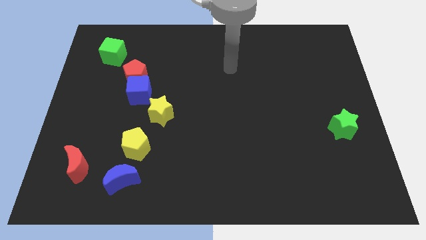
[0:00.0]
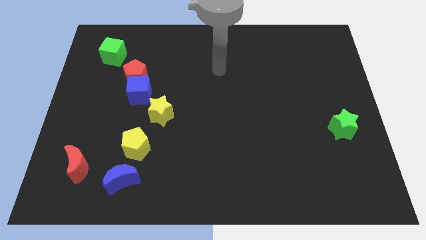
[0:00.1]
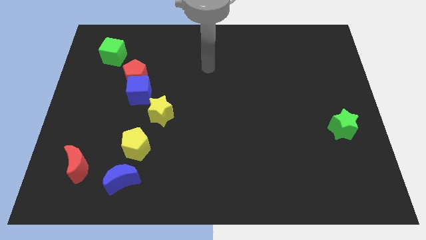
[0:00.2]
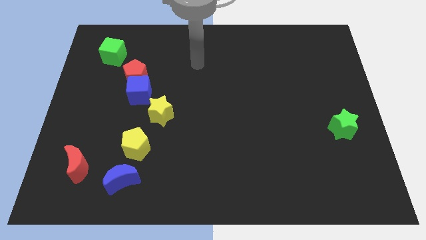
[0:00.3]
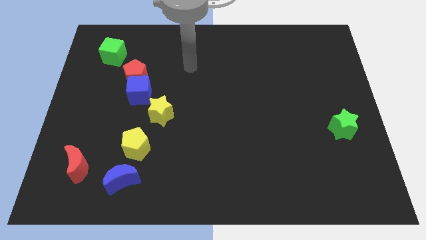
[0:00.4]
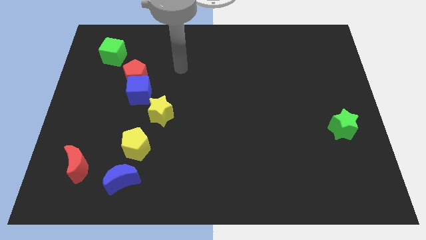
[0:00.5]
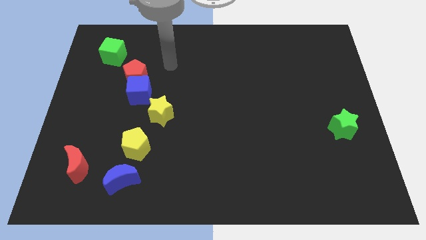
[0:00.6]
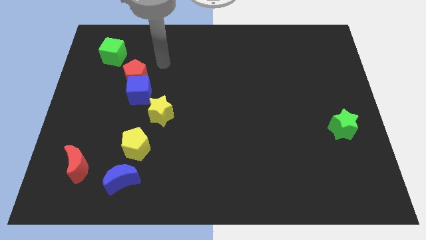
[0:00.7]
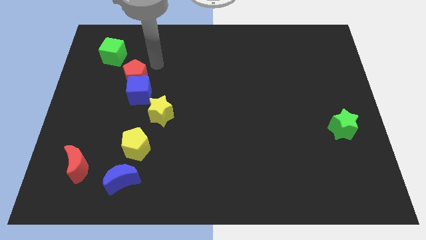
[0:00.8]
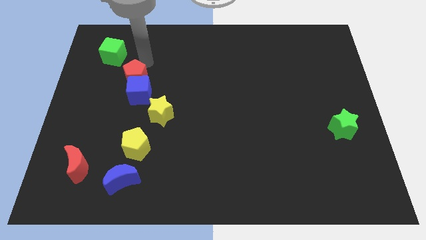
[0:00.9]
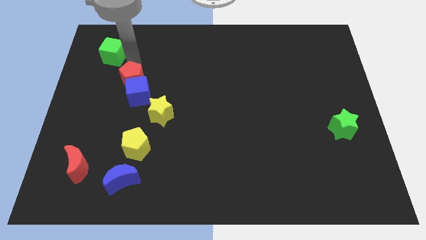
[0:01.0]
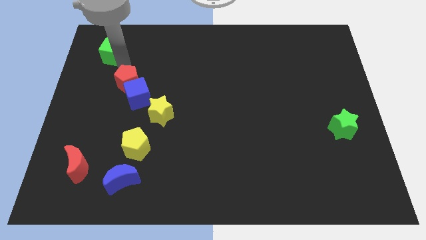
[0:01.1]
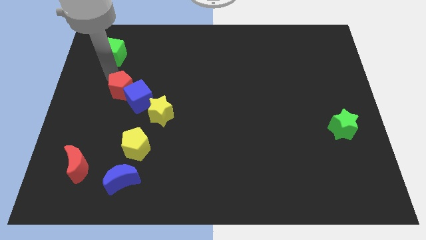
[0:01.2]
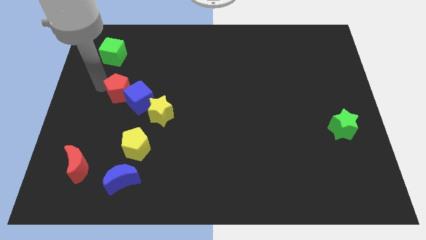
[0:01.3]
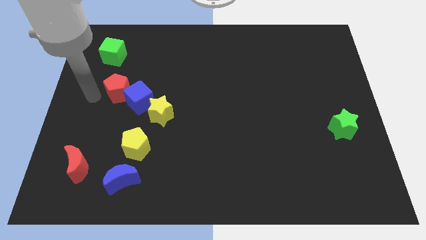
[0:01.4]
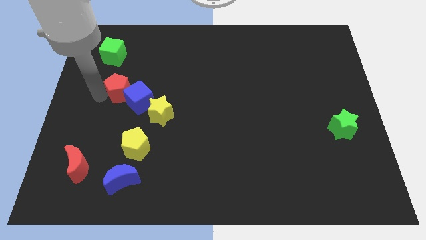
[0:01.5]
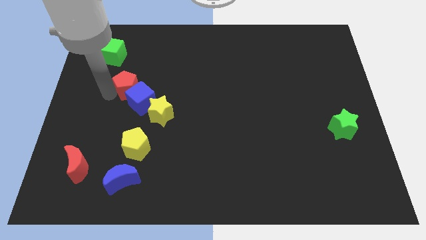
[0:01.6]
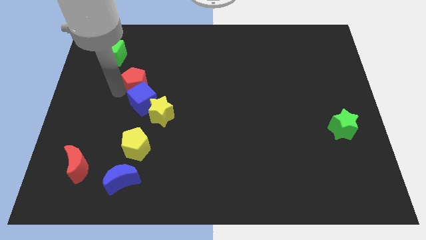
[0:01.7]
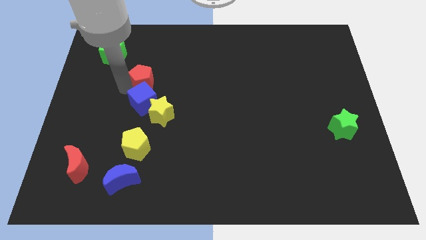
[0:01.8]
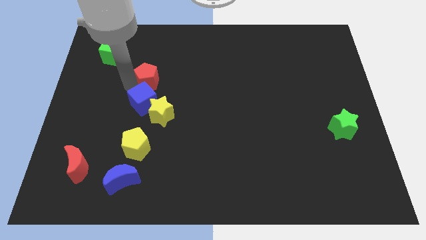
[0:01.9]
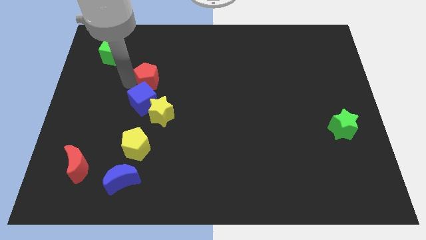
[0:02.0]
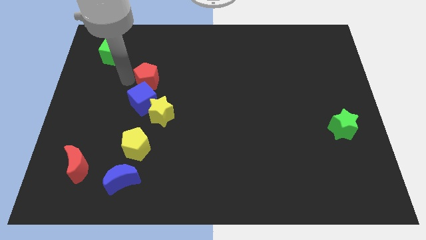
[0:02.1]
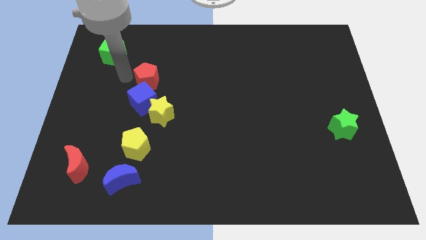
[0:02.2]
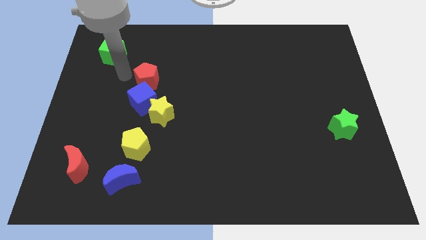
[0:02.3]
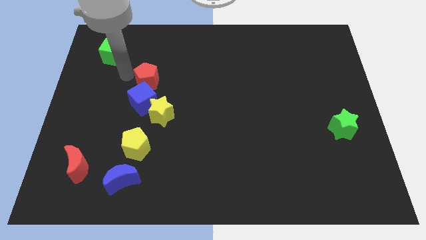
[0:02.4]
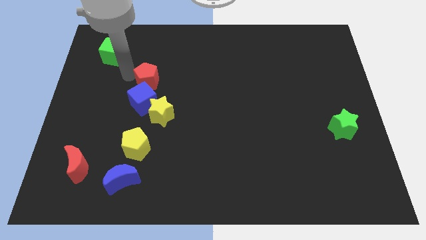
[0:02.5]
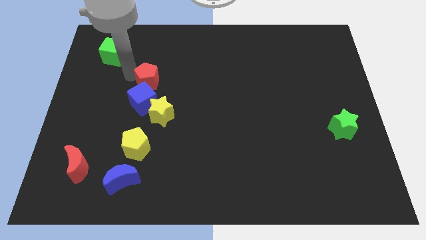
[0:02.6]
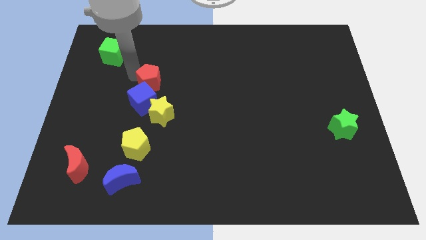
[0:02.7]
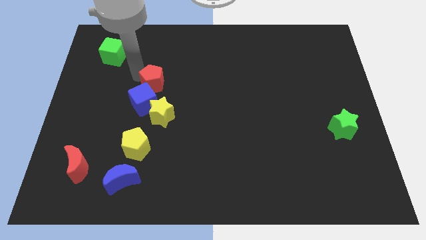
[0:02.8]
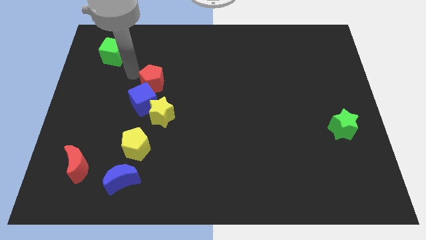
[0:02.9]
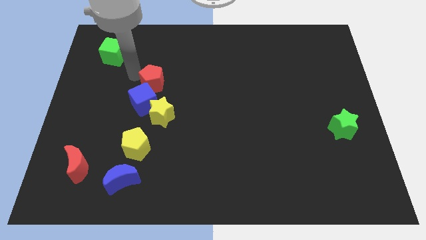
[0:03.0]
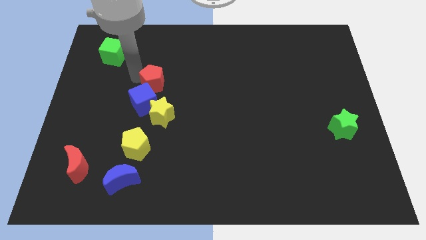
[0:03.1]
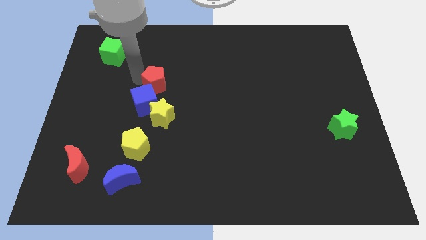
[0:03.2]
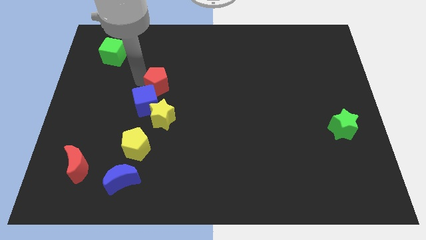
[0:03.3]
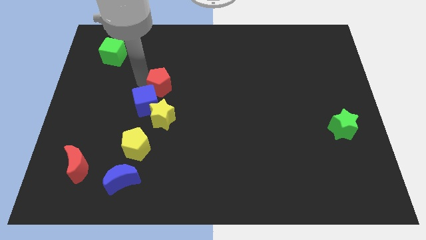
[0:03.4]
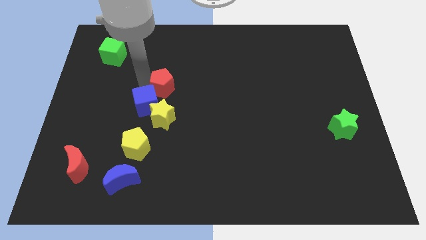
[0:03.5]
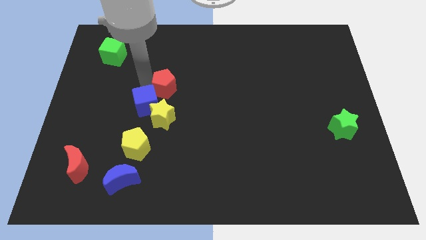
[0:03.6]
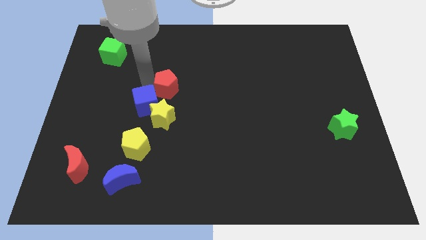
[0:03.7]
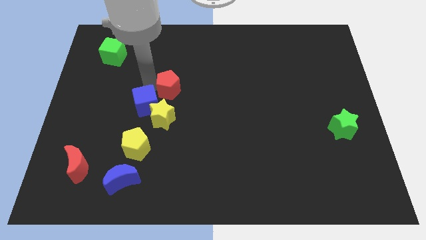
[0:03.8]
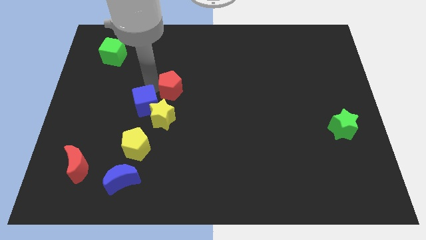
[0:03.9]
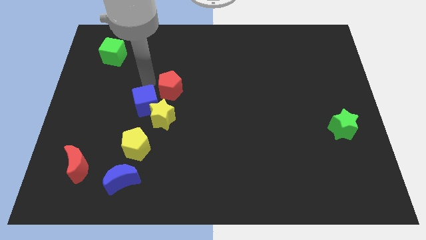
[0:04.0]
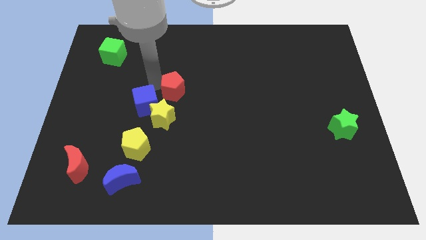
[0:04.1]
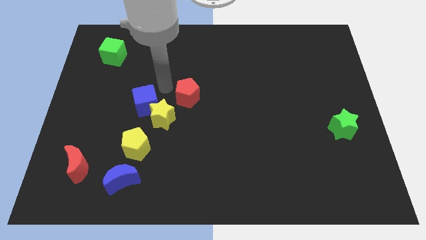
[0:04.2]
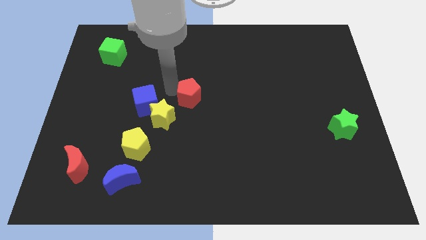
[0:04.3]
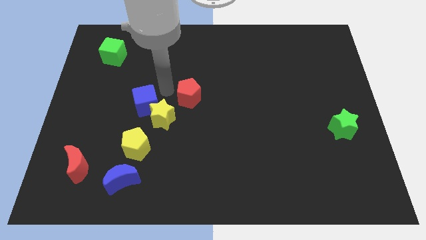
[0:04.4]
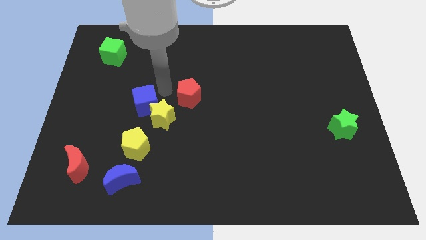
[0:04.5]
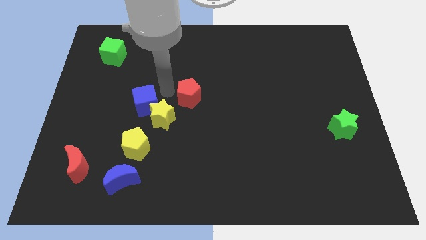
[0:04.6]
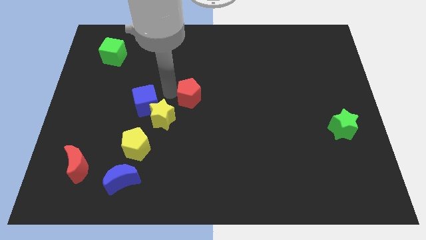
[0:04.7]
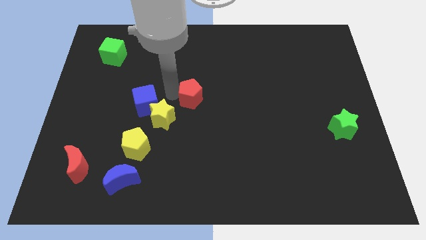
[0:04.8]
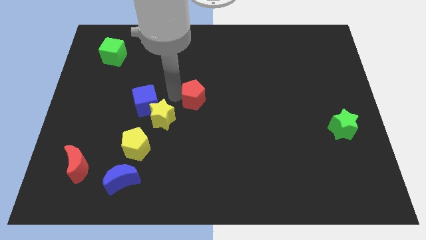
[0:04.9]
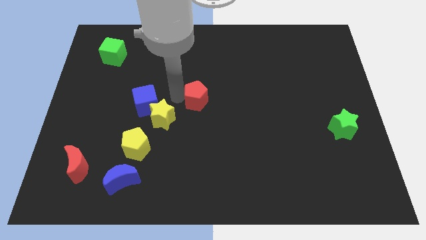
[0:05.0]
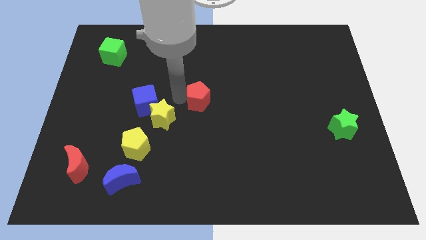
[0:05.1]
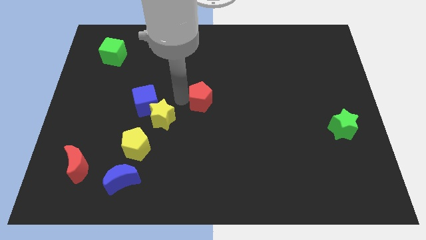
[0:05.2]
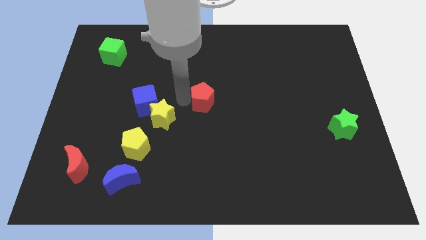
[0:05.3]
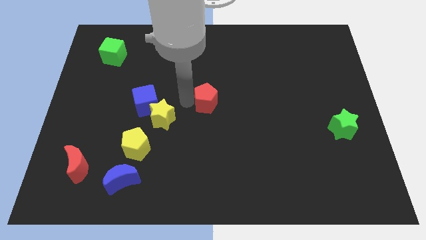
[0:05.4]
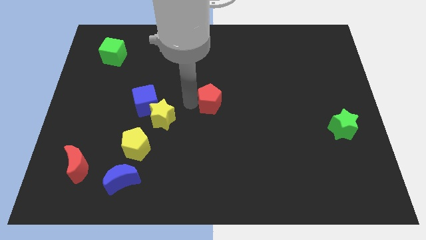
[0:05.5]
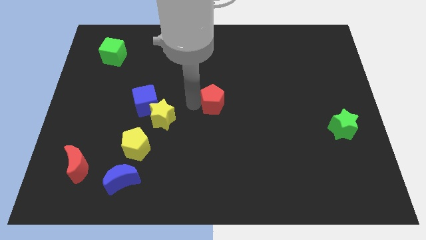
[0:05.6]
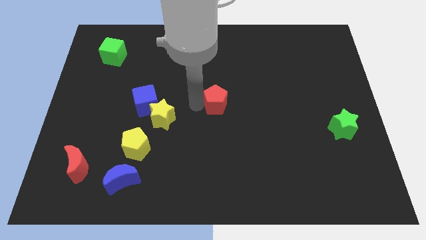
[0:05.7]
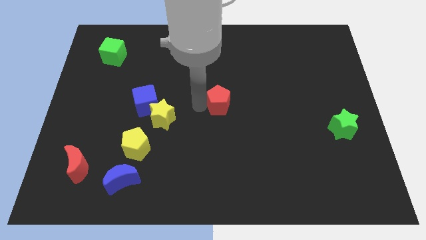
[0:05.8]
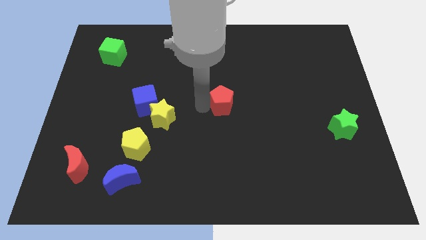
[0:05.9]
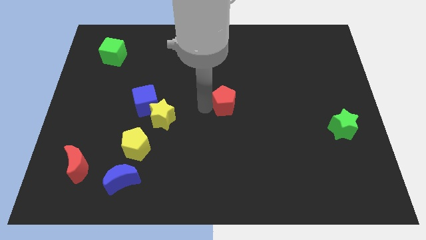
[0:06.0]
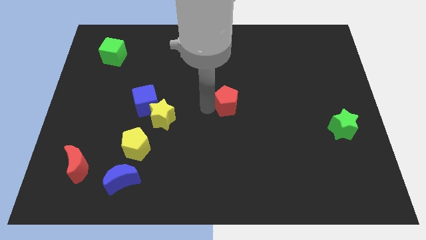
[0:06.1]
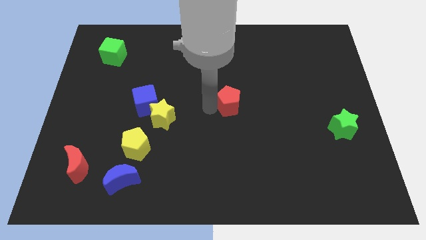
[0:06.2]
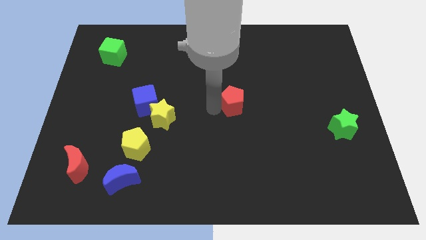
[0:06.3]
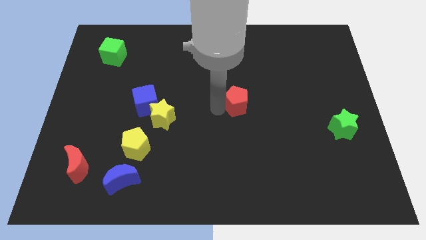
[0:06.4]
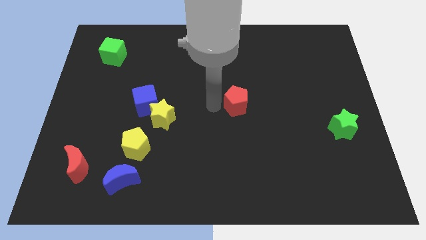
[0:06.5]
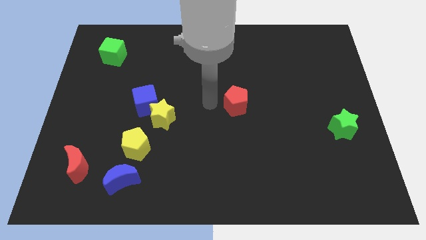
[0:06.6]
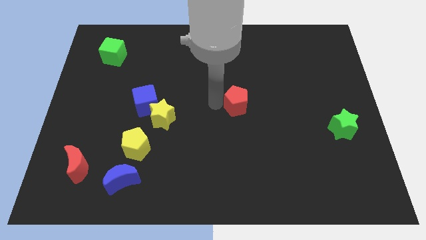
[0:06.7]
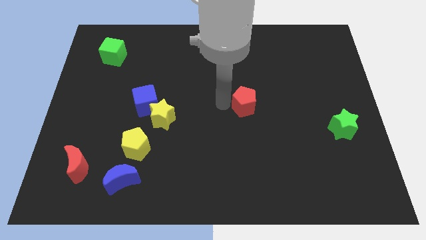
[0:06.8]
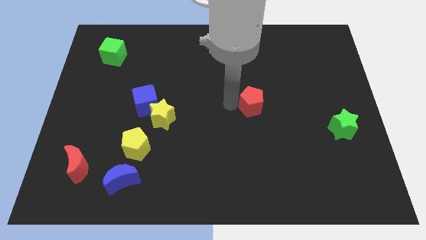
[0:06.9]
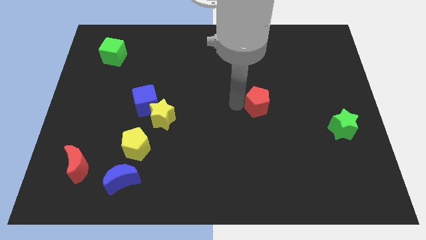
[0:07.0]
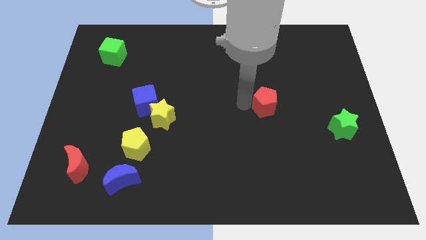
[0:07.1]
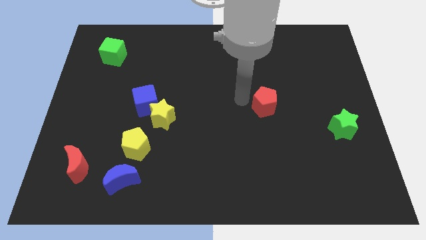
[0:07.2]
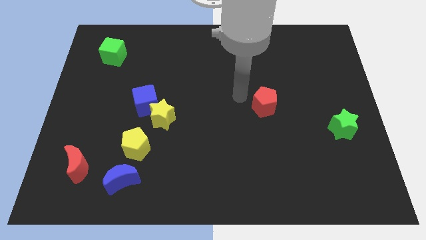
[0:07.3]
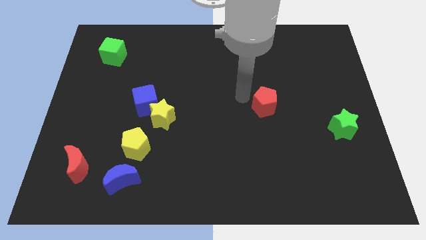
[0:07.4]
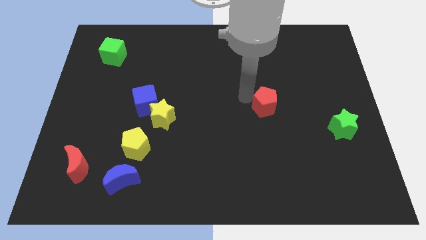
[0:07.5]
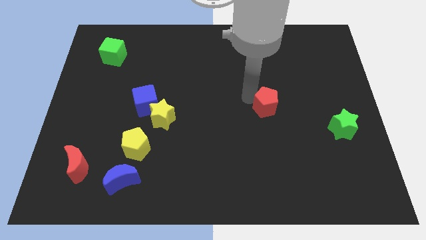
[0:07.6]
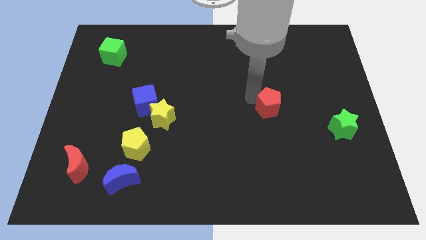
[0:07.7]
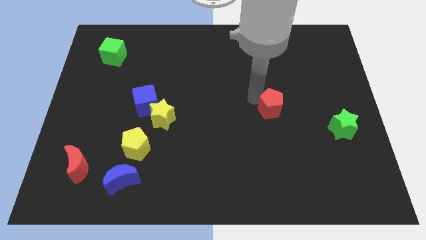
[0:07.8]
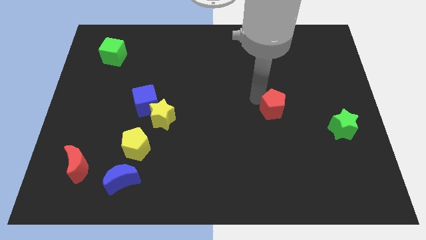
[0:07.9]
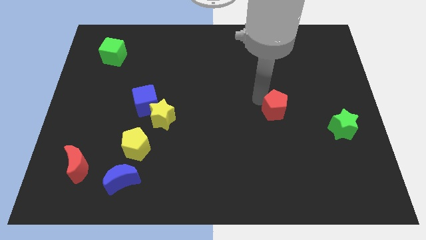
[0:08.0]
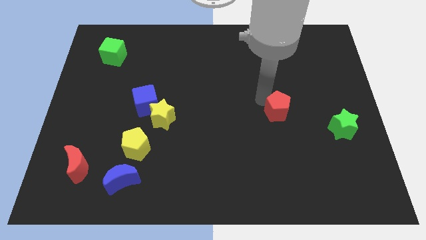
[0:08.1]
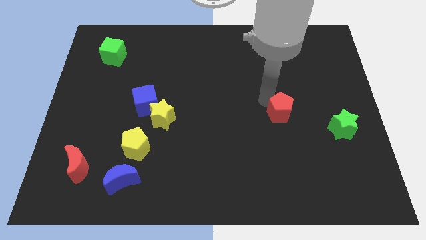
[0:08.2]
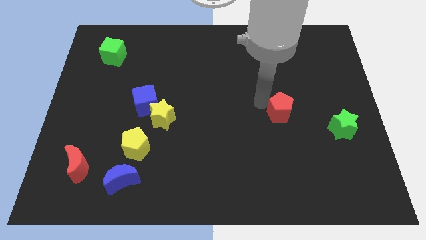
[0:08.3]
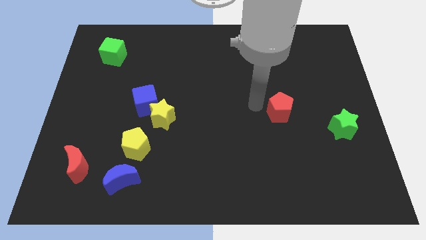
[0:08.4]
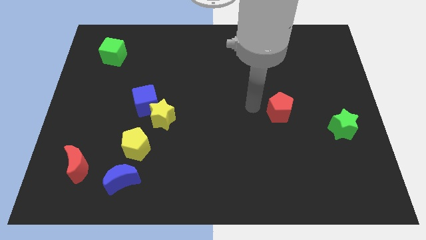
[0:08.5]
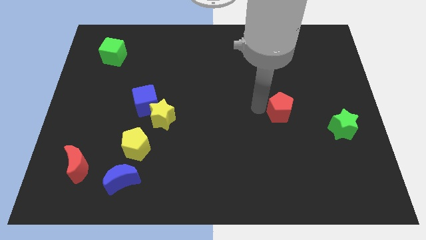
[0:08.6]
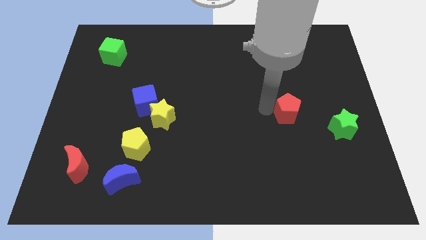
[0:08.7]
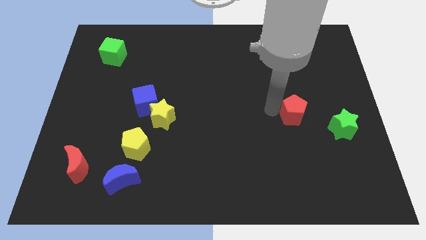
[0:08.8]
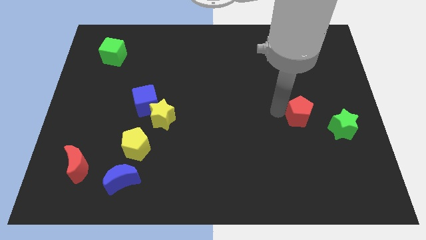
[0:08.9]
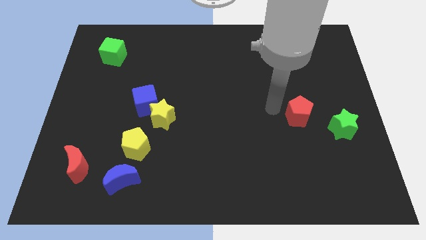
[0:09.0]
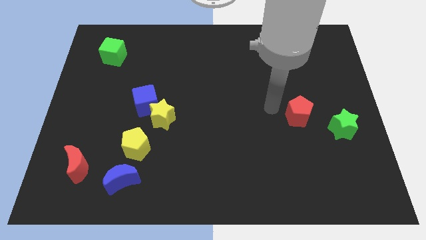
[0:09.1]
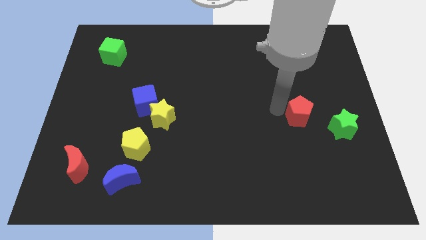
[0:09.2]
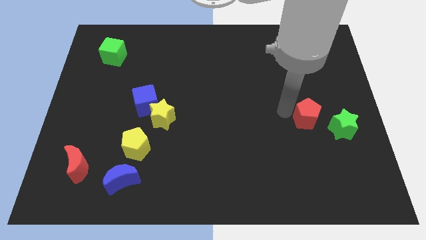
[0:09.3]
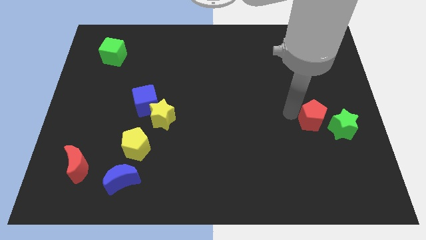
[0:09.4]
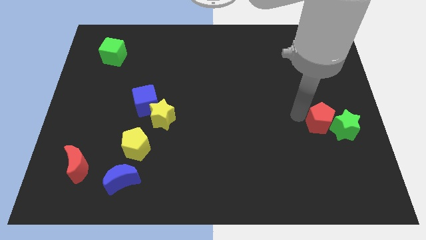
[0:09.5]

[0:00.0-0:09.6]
put the red pentagon to the green star
